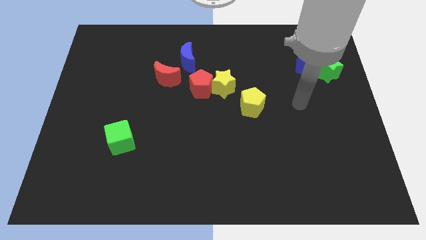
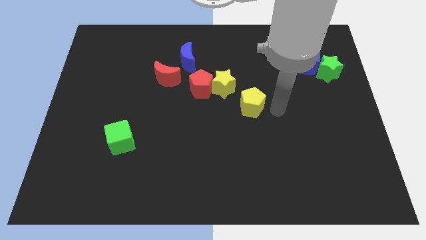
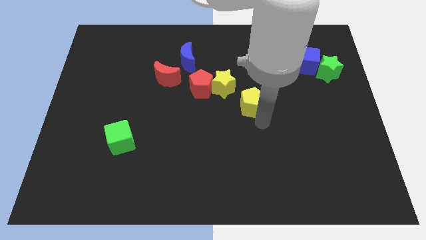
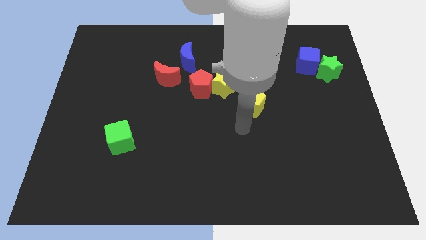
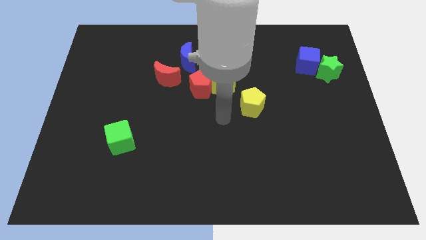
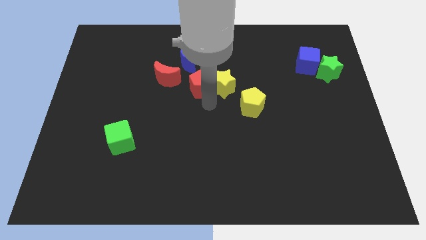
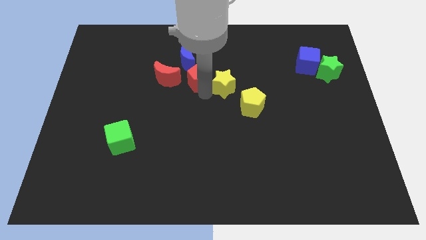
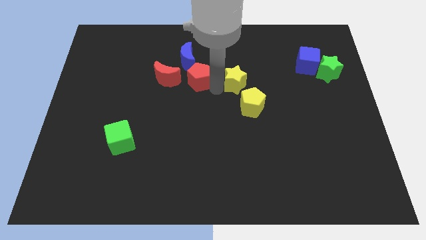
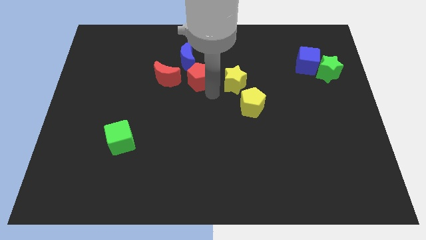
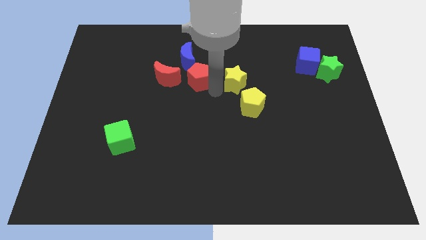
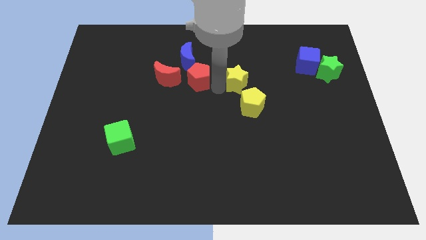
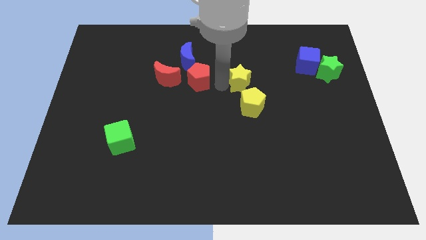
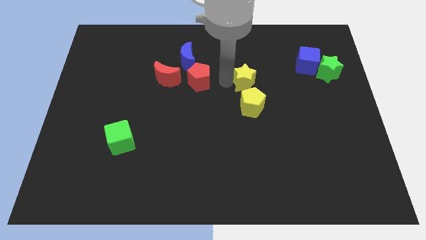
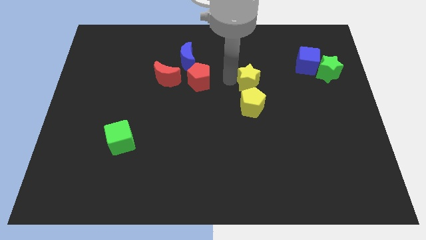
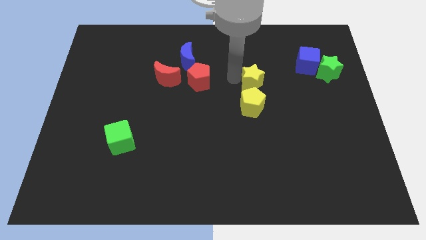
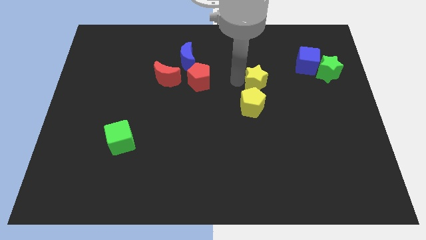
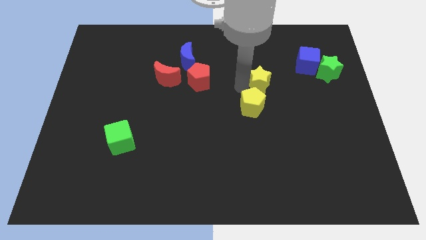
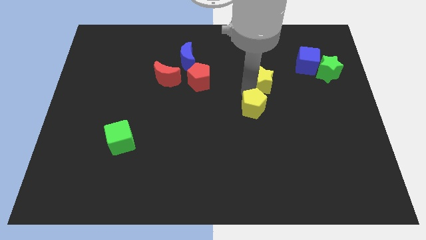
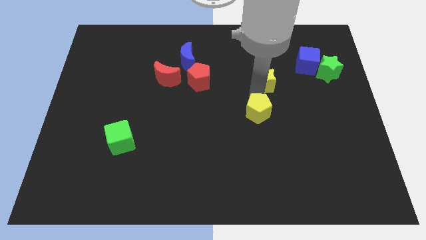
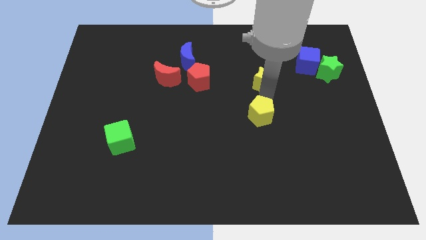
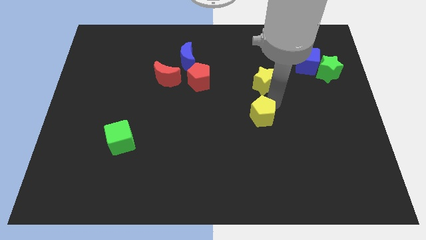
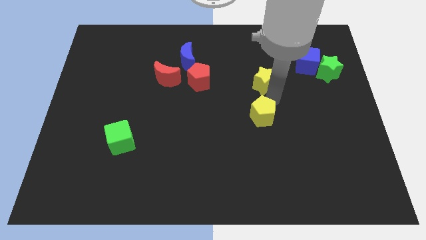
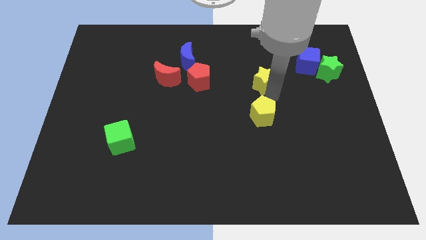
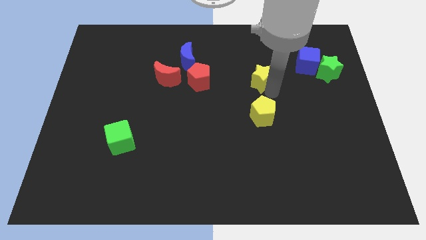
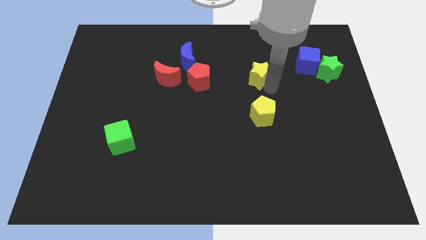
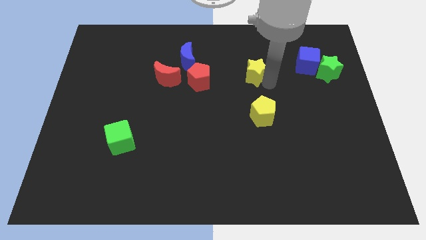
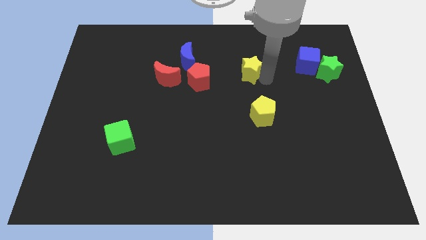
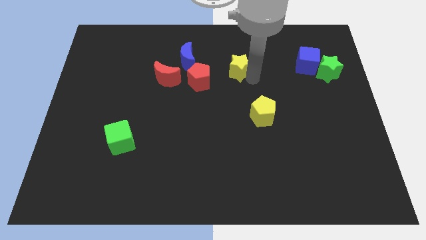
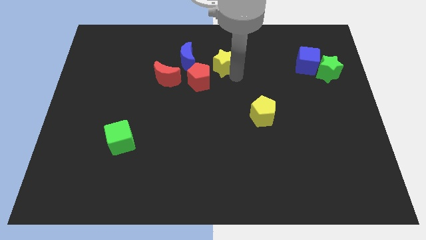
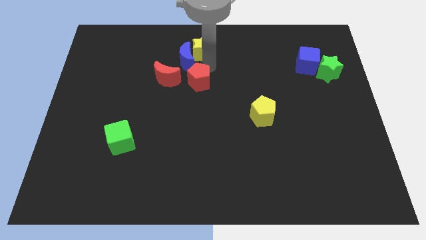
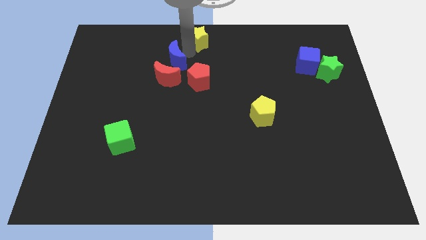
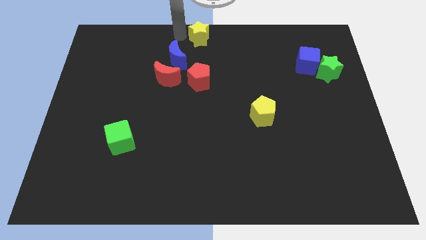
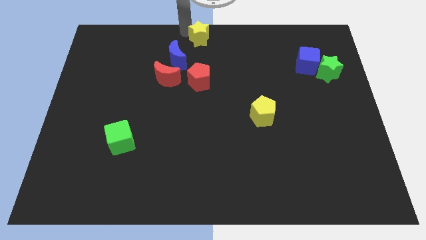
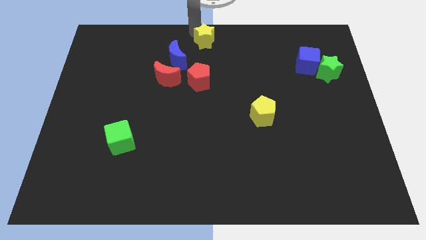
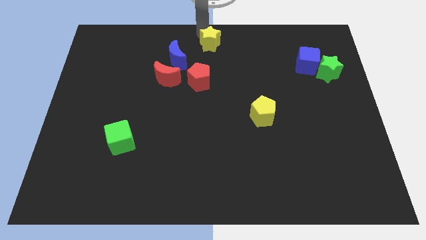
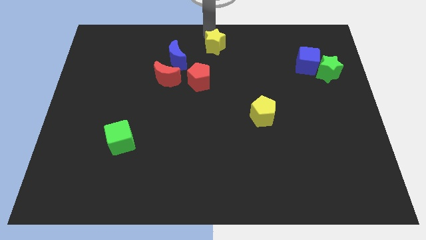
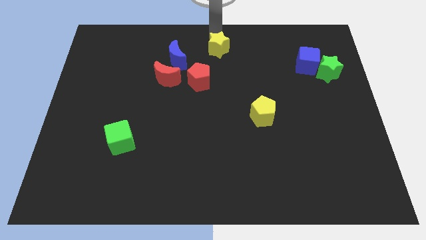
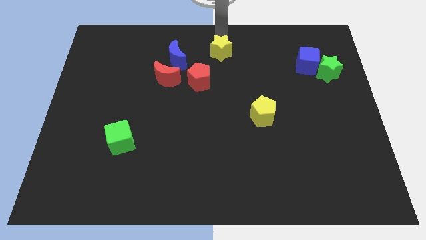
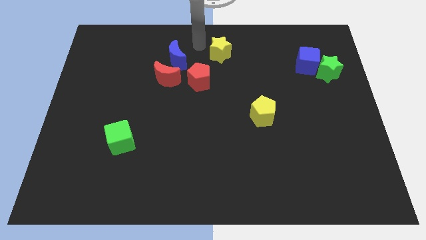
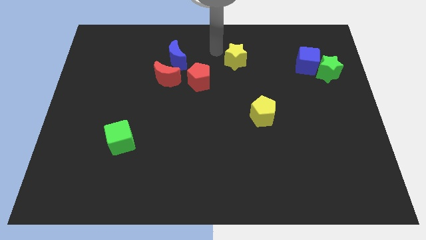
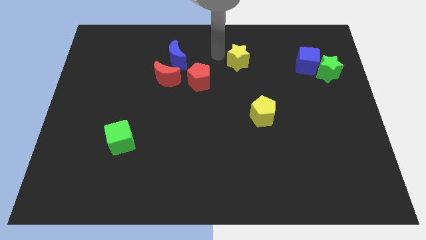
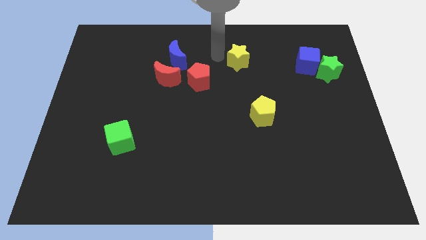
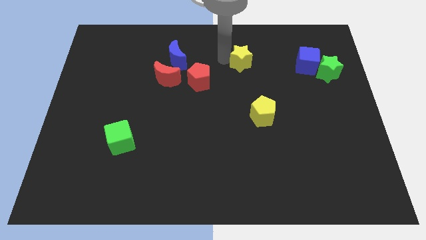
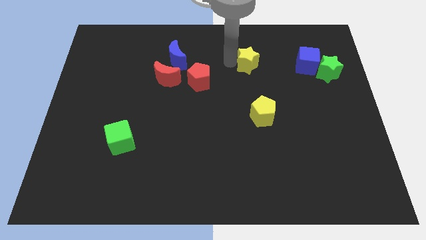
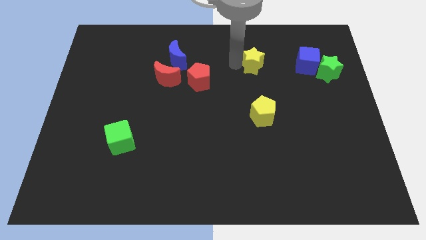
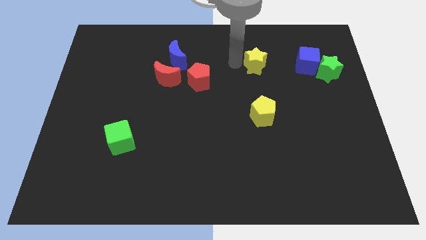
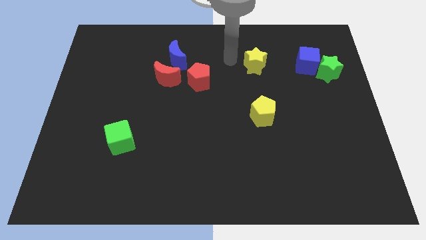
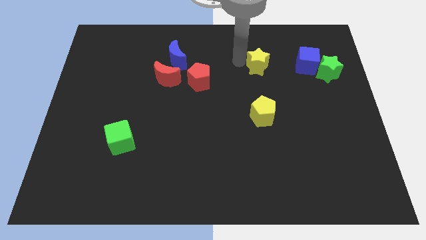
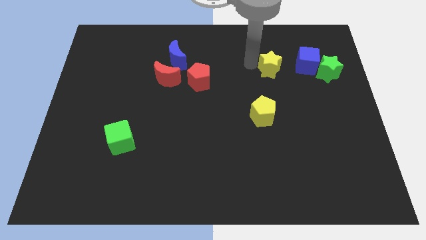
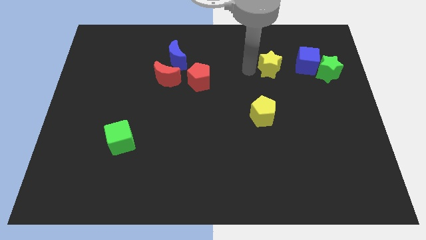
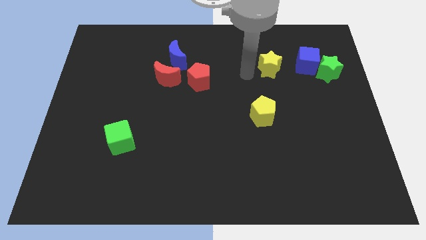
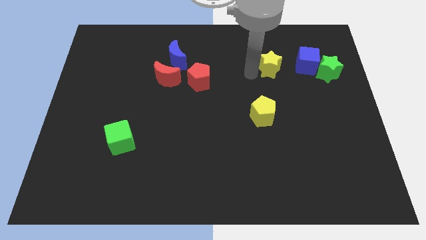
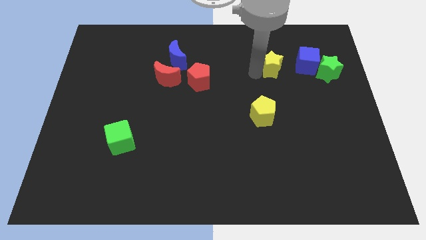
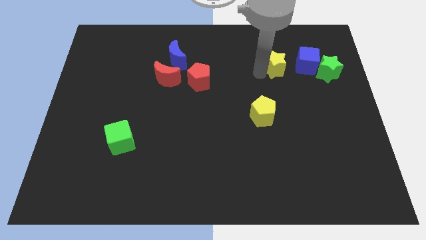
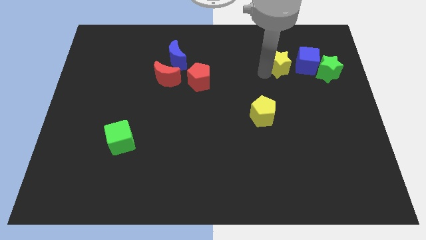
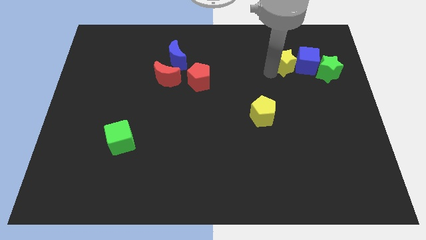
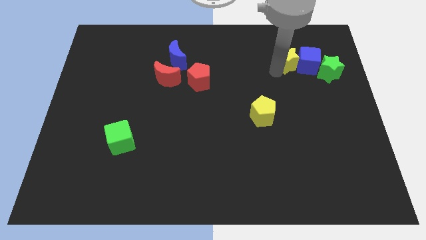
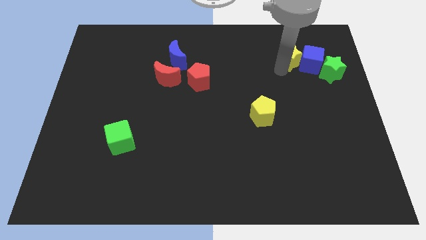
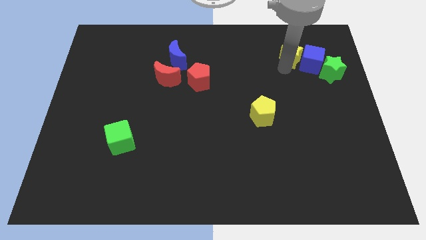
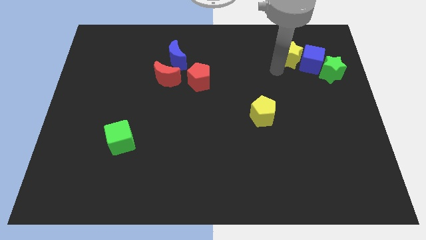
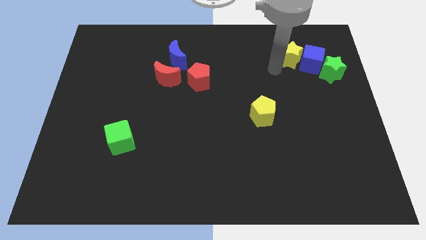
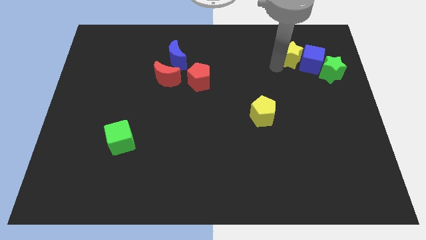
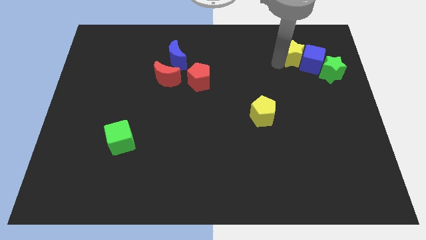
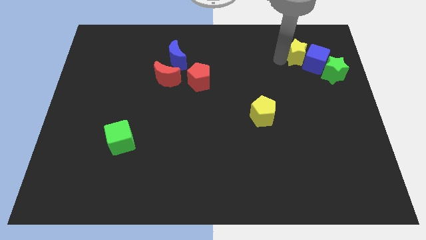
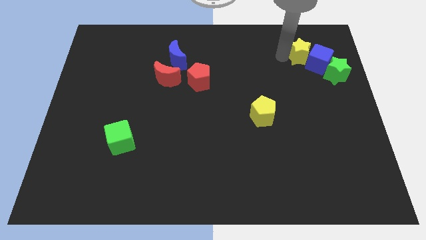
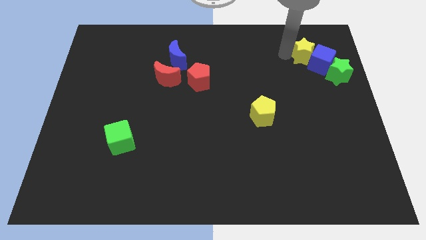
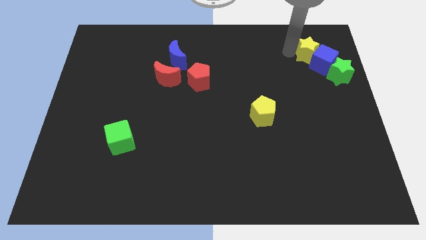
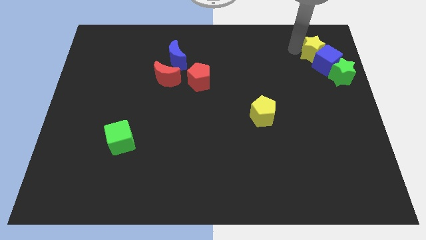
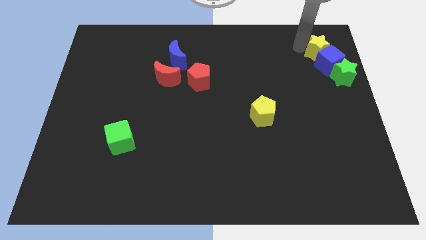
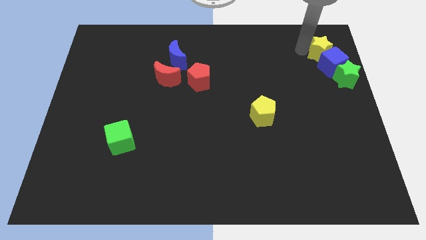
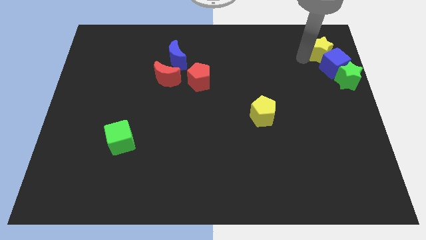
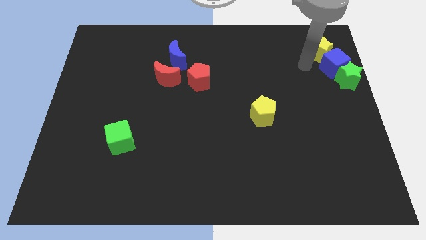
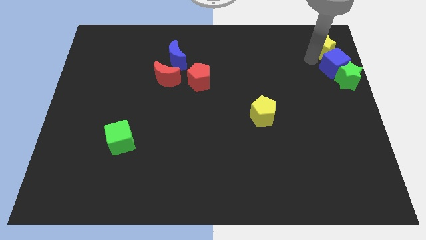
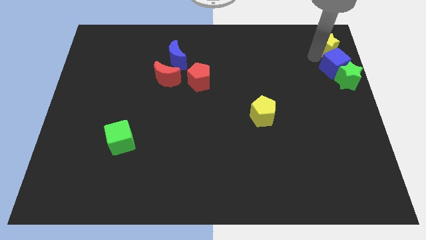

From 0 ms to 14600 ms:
slide the yellow star to the top right
